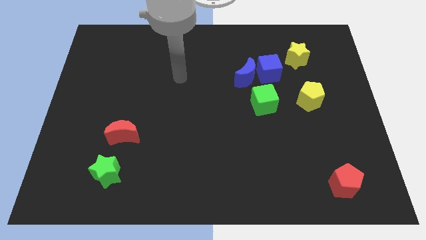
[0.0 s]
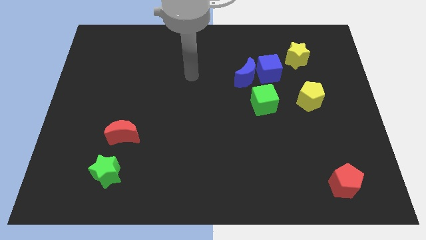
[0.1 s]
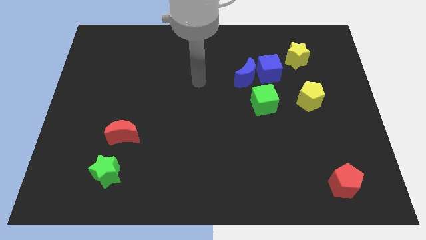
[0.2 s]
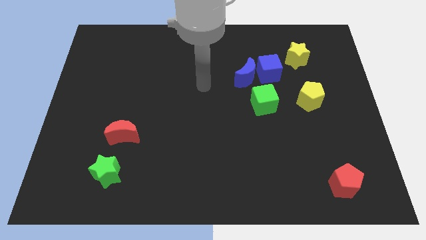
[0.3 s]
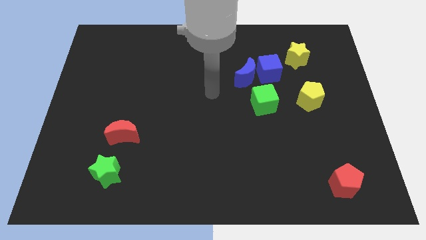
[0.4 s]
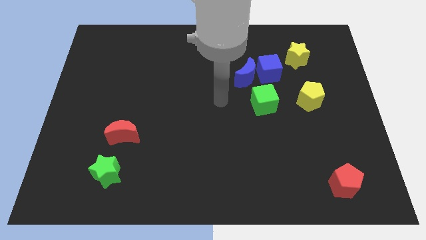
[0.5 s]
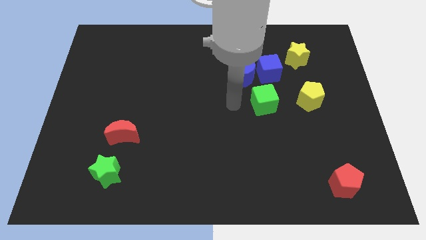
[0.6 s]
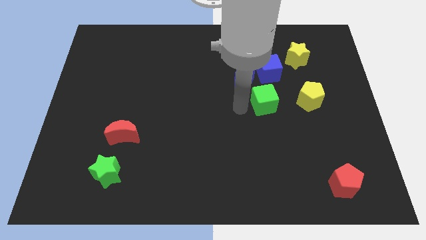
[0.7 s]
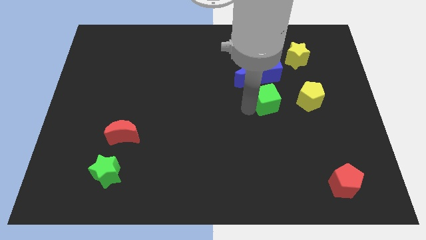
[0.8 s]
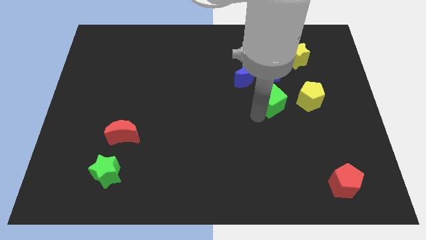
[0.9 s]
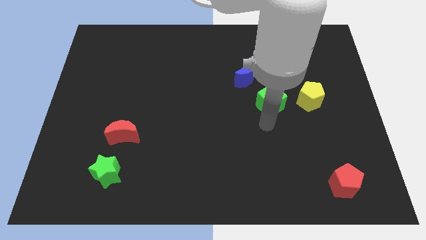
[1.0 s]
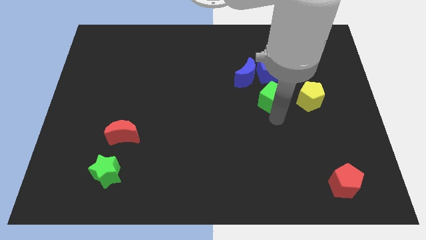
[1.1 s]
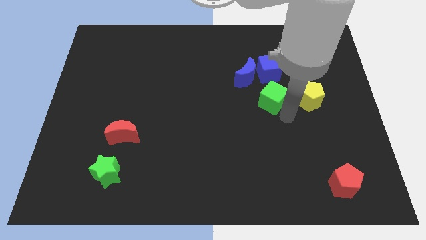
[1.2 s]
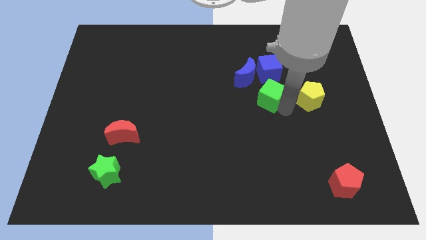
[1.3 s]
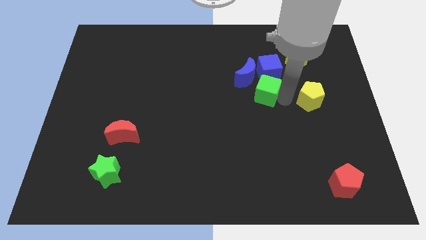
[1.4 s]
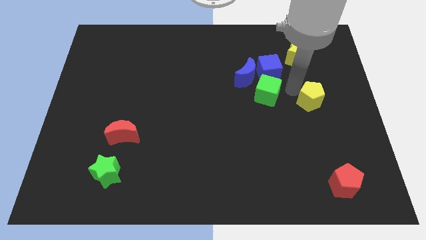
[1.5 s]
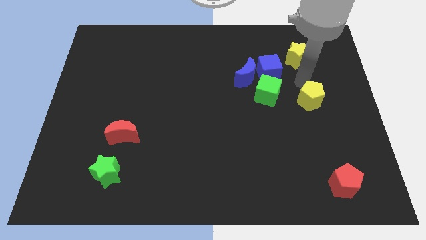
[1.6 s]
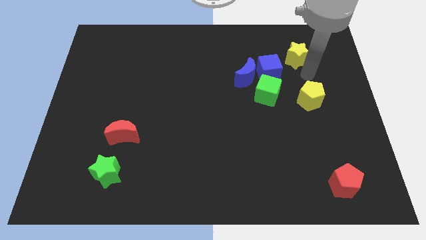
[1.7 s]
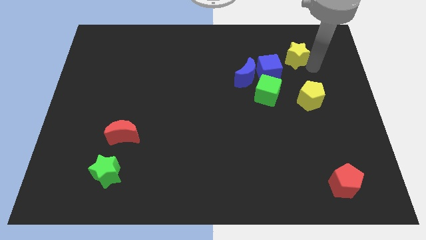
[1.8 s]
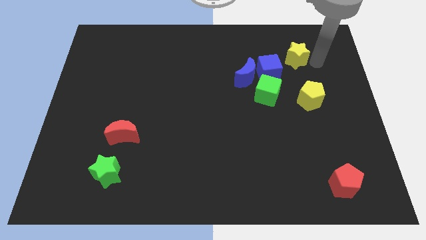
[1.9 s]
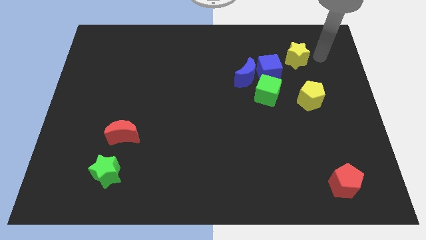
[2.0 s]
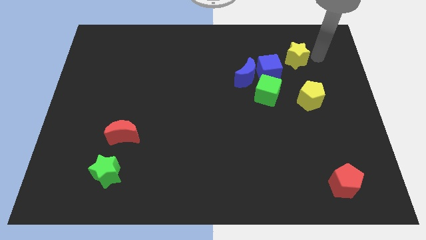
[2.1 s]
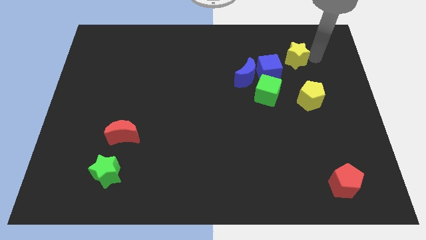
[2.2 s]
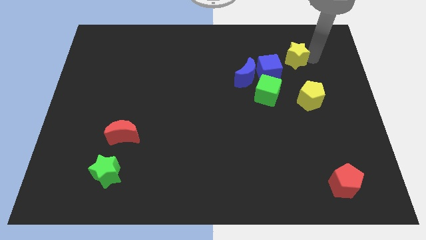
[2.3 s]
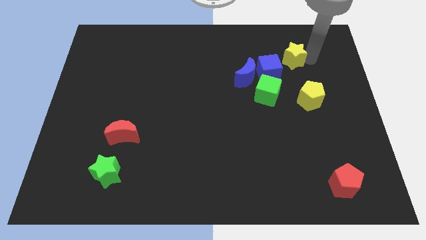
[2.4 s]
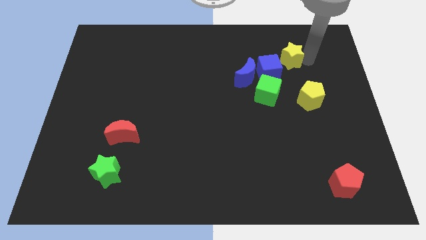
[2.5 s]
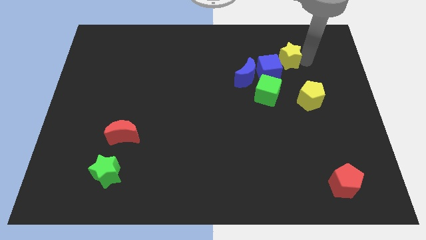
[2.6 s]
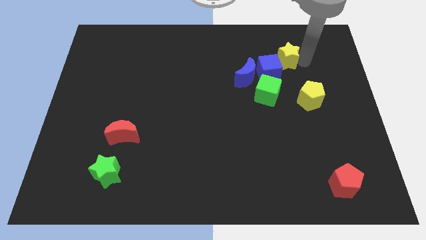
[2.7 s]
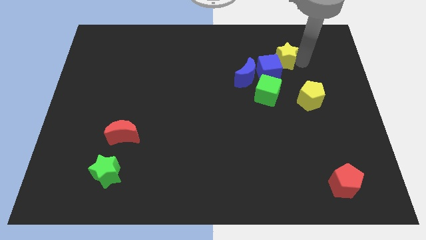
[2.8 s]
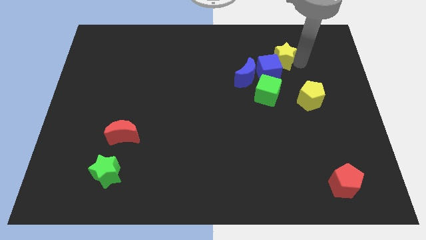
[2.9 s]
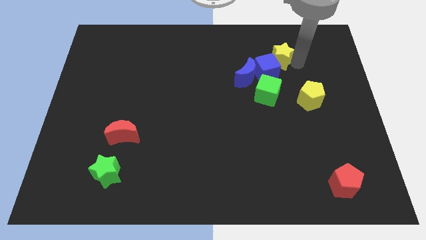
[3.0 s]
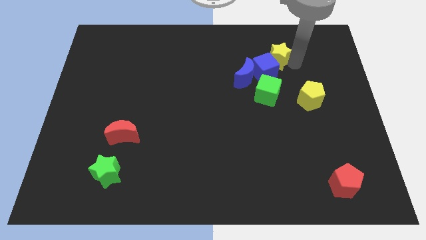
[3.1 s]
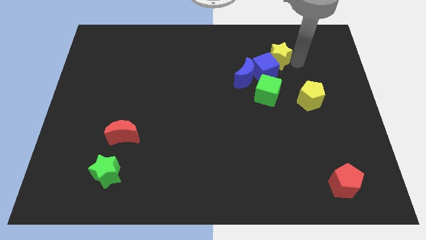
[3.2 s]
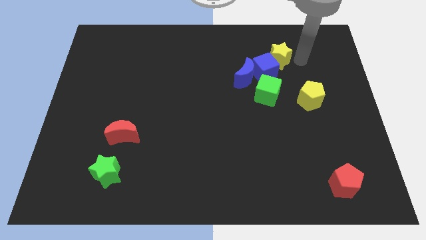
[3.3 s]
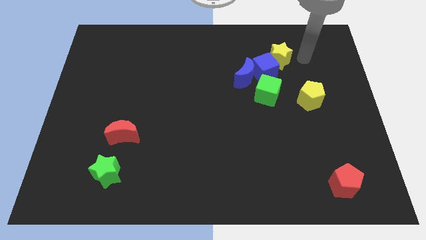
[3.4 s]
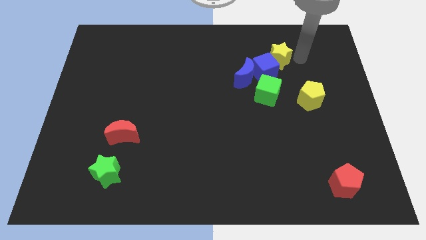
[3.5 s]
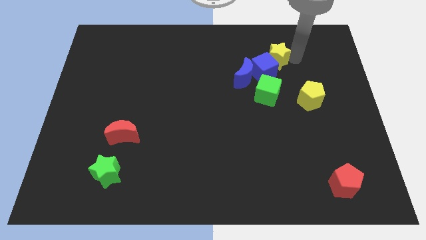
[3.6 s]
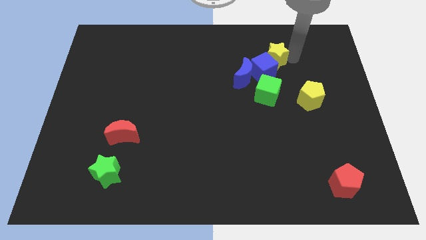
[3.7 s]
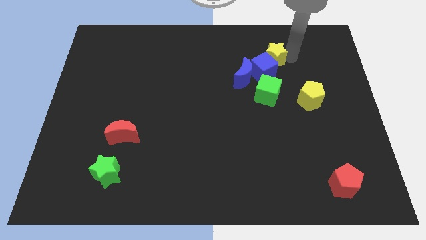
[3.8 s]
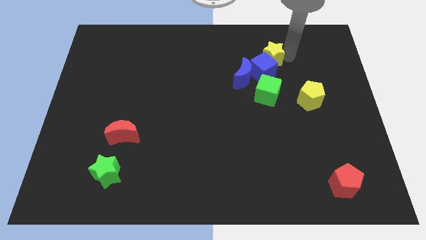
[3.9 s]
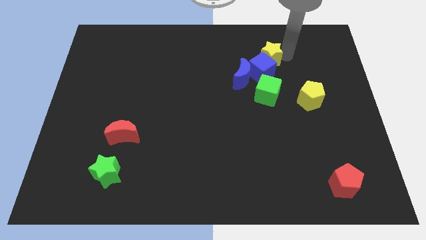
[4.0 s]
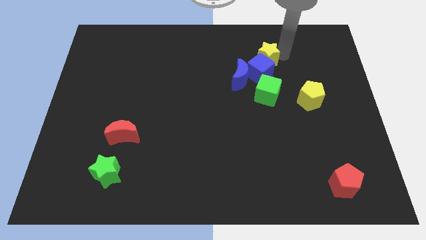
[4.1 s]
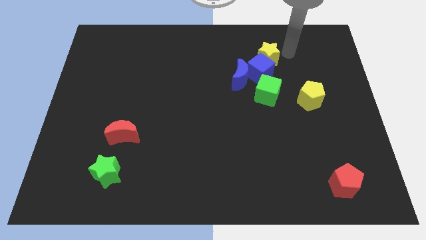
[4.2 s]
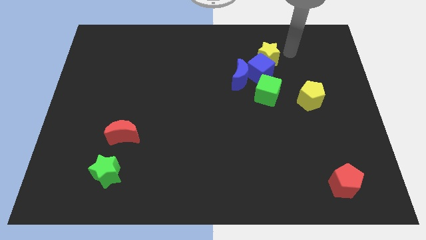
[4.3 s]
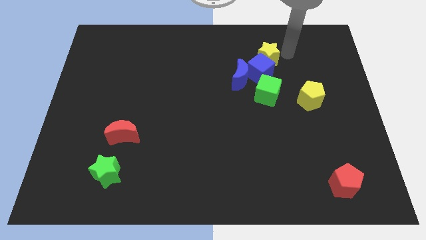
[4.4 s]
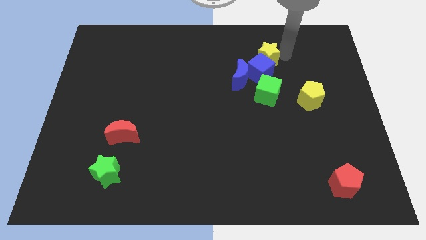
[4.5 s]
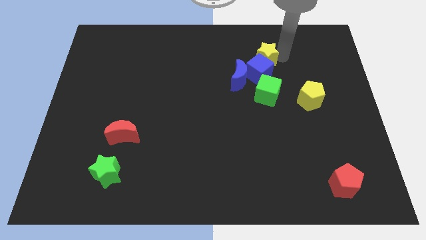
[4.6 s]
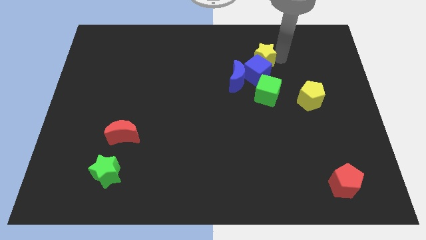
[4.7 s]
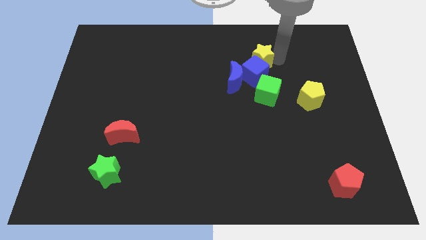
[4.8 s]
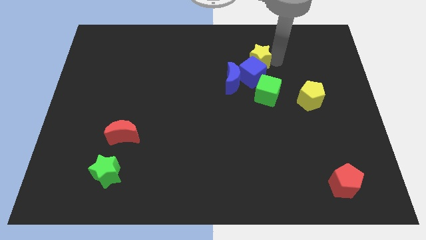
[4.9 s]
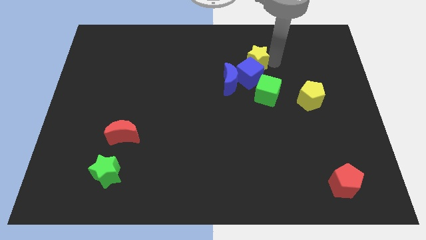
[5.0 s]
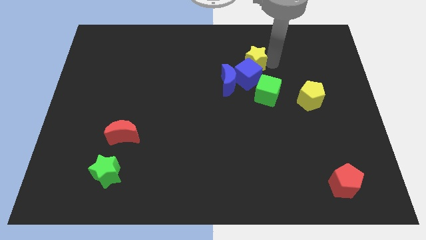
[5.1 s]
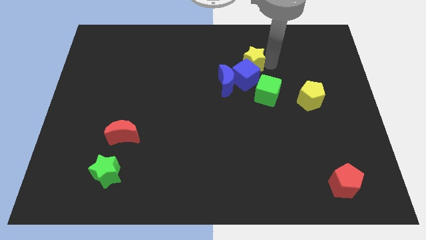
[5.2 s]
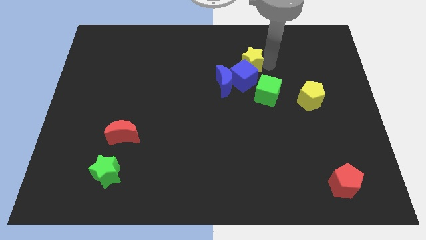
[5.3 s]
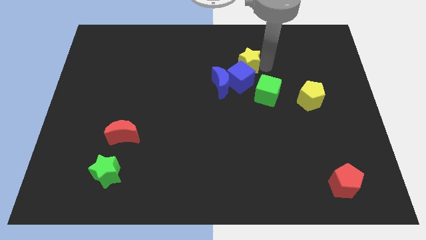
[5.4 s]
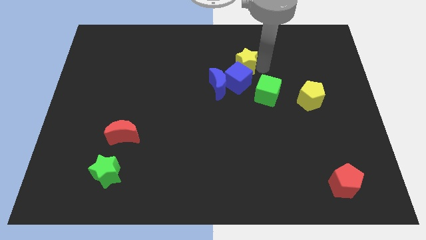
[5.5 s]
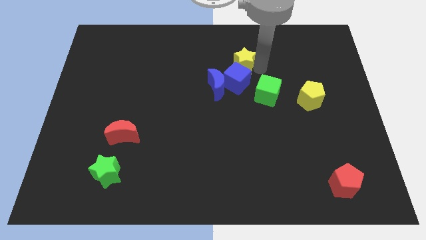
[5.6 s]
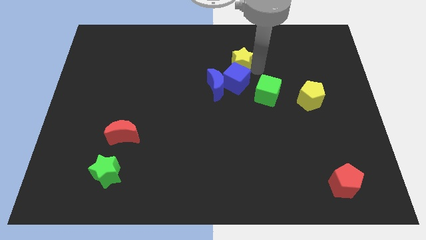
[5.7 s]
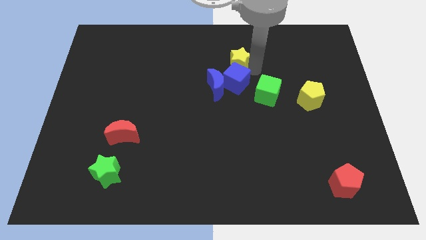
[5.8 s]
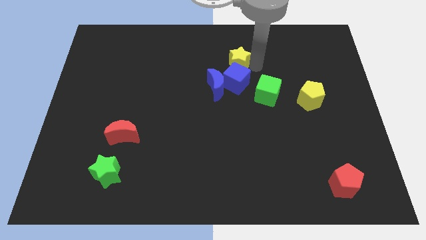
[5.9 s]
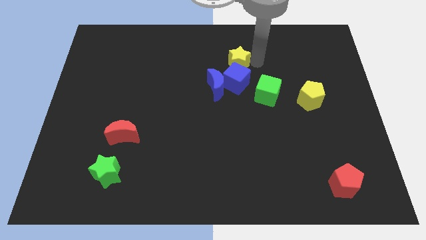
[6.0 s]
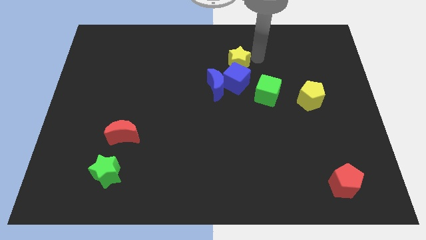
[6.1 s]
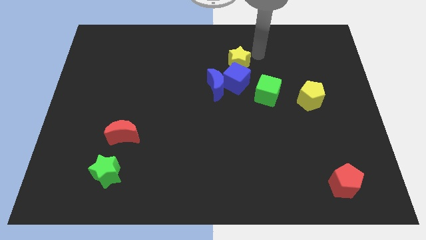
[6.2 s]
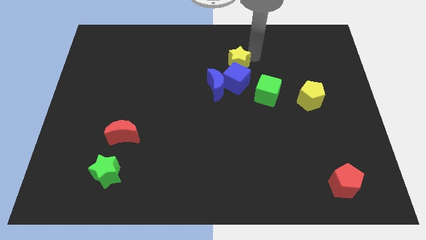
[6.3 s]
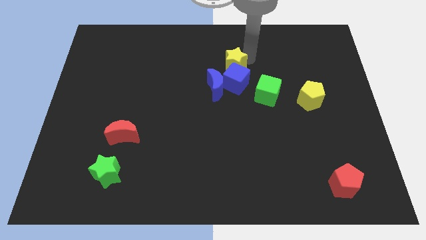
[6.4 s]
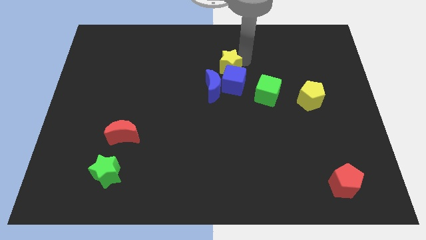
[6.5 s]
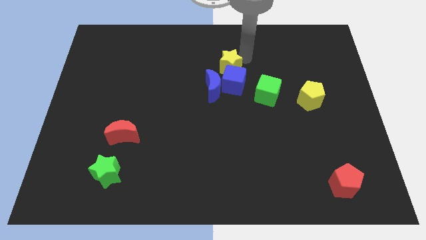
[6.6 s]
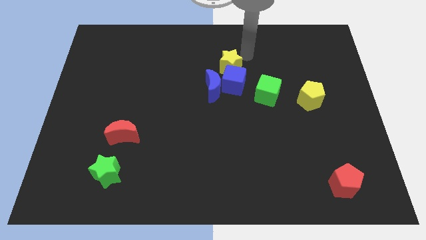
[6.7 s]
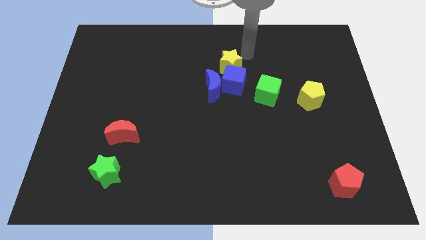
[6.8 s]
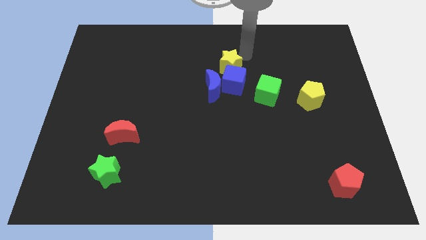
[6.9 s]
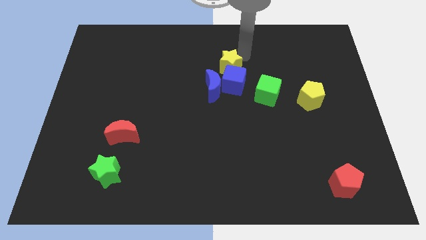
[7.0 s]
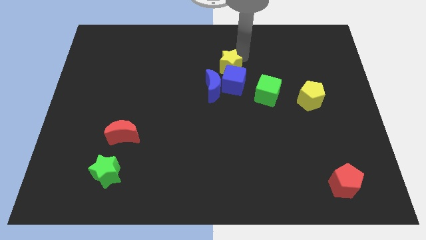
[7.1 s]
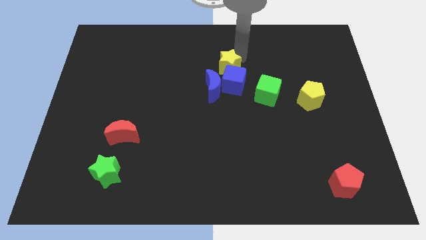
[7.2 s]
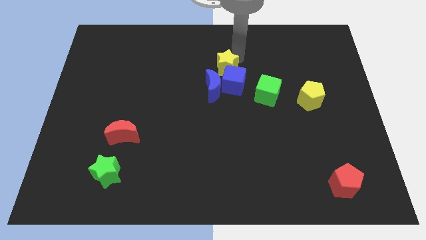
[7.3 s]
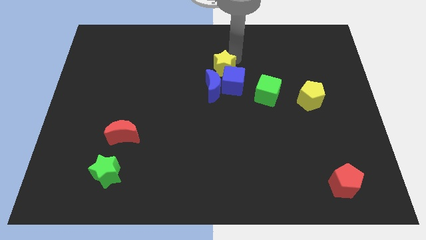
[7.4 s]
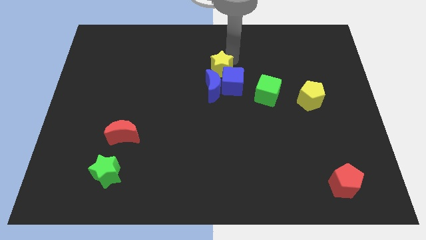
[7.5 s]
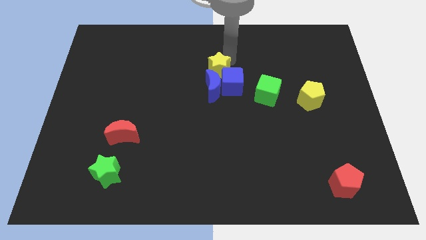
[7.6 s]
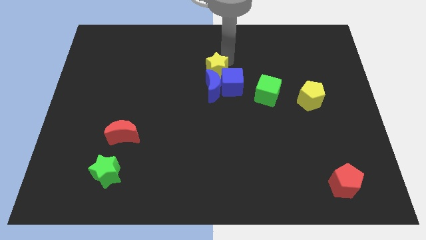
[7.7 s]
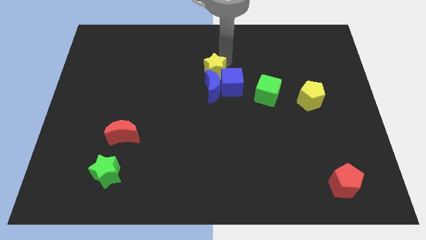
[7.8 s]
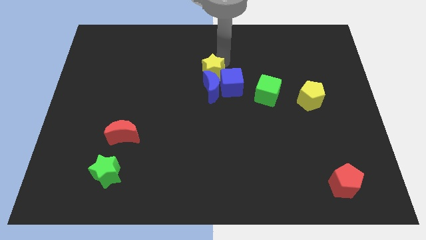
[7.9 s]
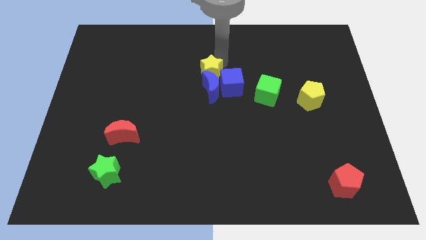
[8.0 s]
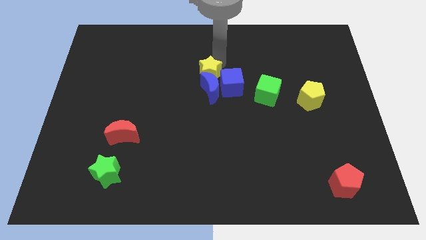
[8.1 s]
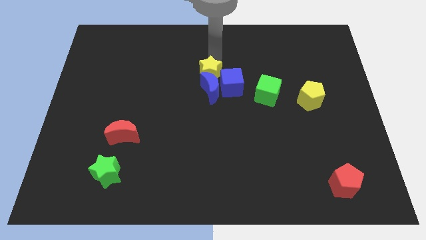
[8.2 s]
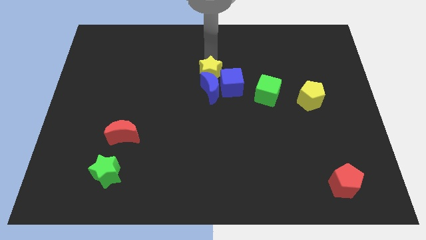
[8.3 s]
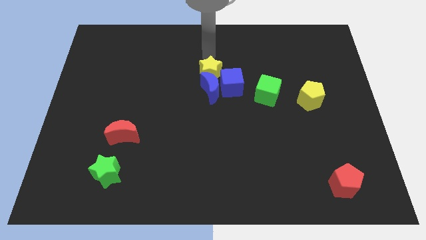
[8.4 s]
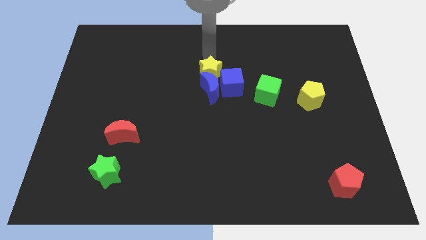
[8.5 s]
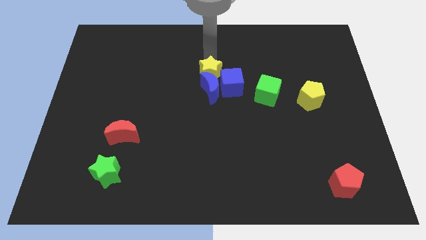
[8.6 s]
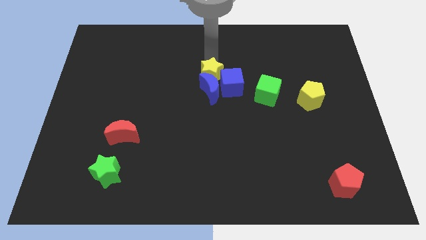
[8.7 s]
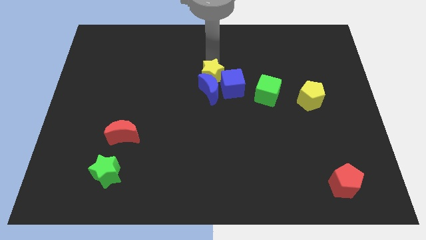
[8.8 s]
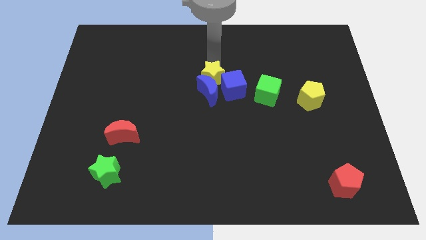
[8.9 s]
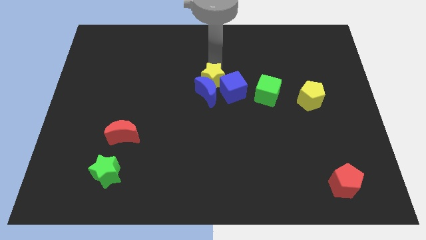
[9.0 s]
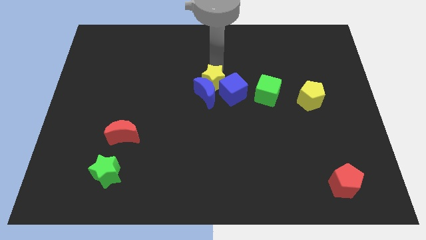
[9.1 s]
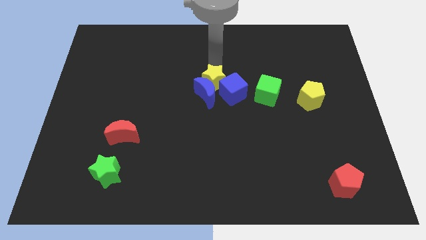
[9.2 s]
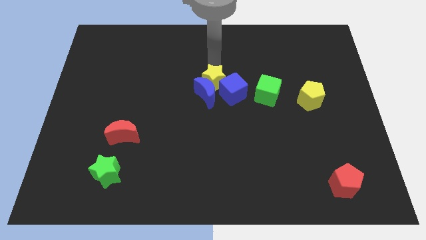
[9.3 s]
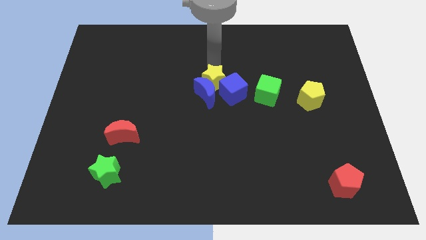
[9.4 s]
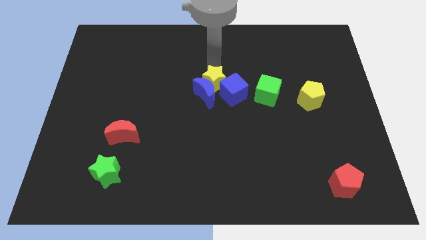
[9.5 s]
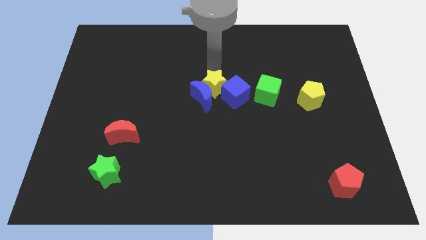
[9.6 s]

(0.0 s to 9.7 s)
slide the yellow star downwards and to the left
